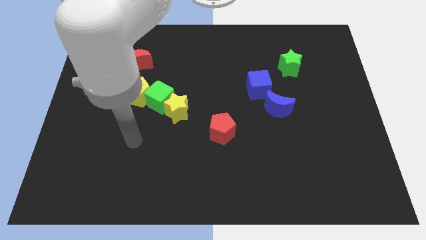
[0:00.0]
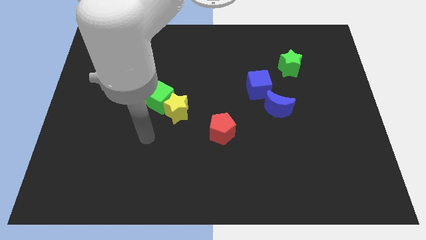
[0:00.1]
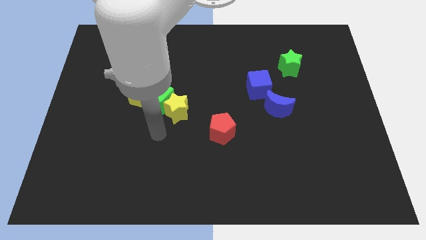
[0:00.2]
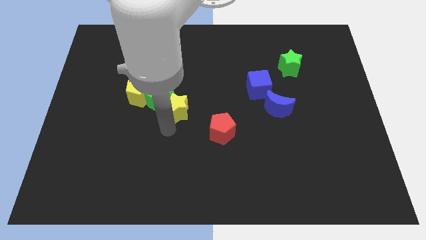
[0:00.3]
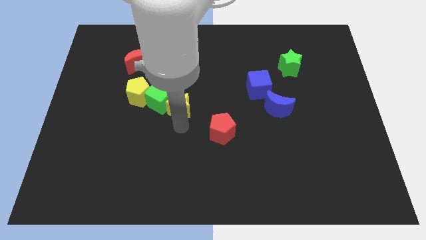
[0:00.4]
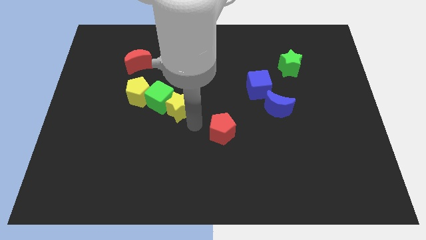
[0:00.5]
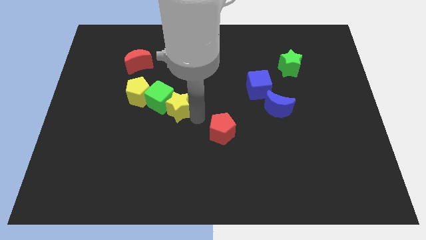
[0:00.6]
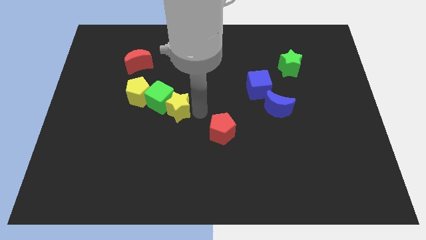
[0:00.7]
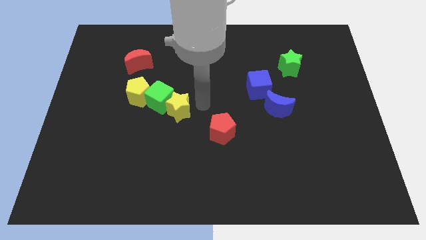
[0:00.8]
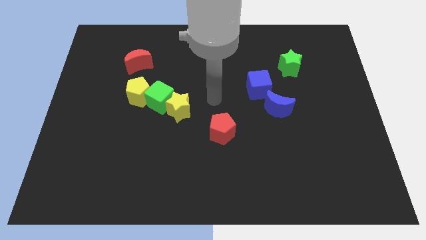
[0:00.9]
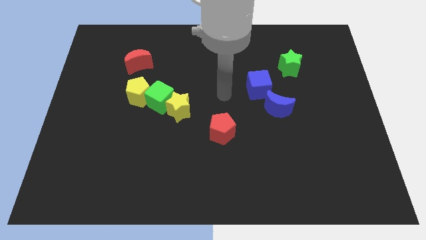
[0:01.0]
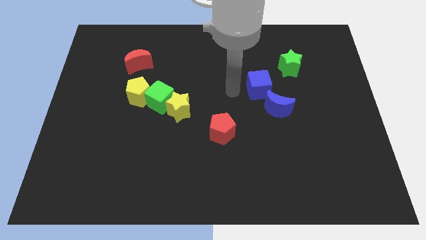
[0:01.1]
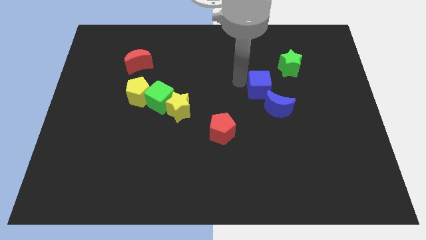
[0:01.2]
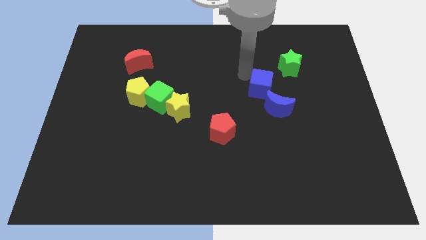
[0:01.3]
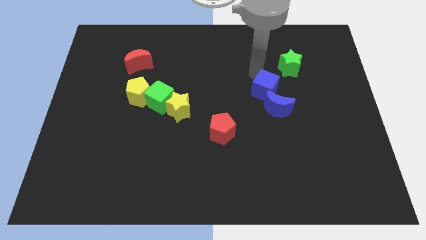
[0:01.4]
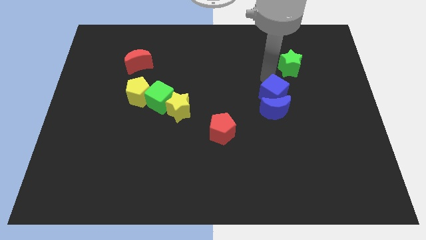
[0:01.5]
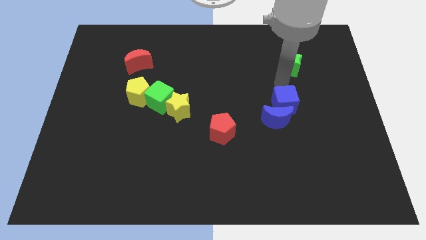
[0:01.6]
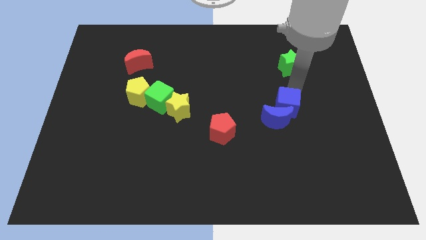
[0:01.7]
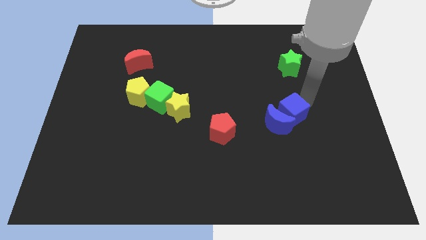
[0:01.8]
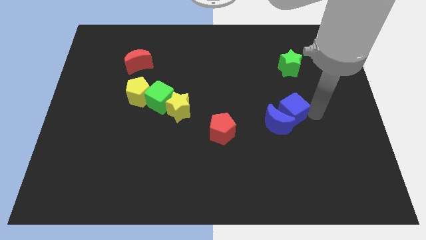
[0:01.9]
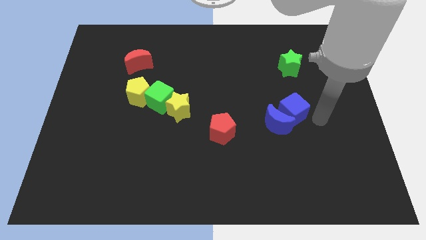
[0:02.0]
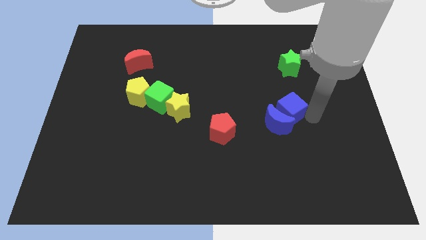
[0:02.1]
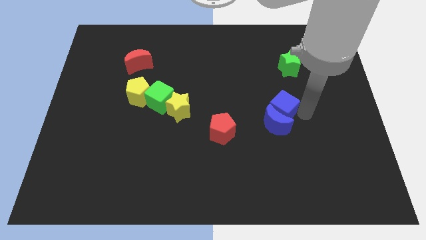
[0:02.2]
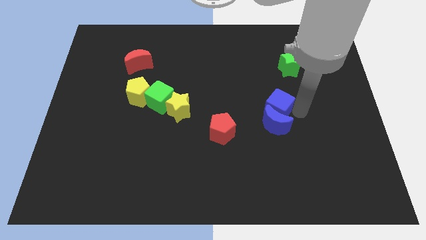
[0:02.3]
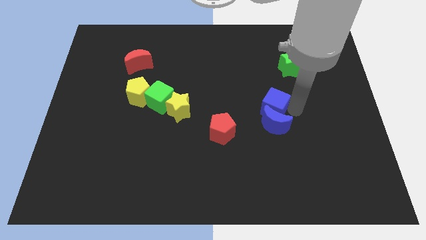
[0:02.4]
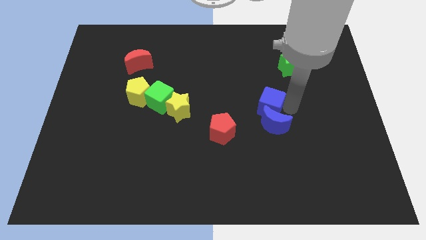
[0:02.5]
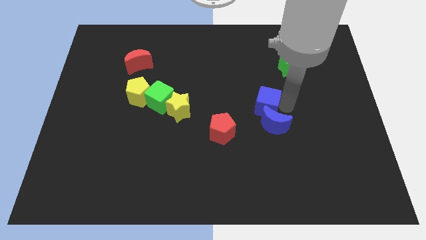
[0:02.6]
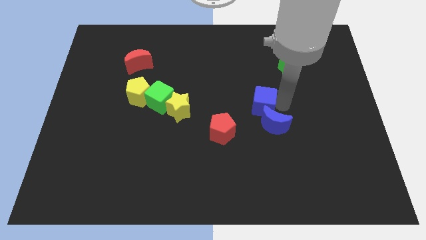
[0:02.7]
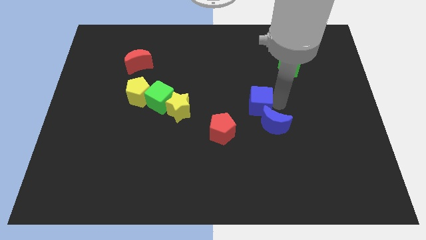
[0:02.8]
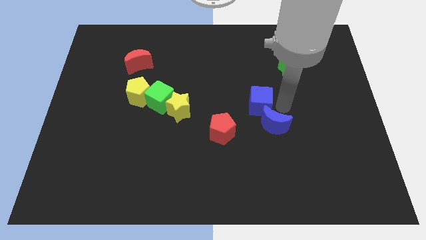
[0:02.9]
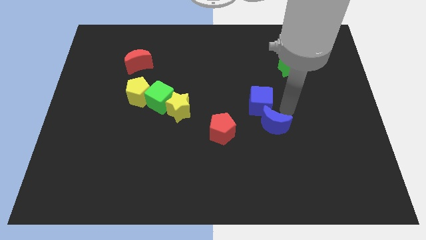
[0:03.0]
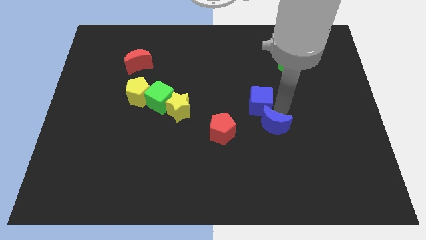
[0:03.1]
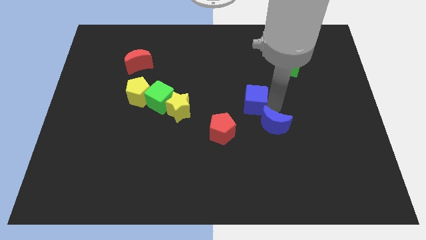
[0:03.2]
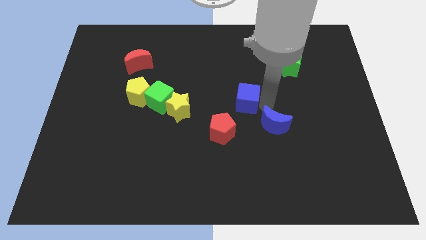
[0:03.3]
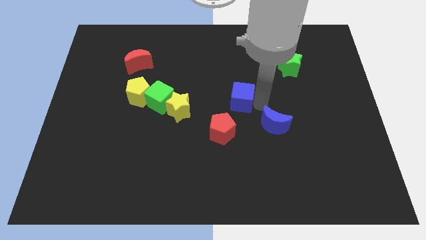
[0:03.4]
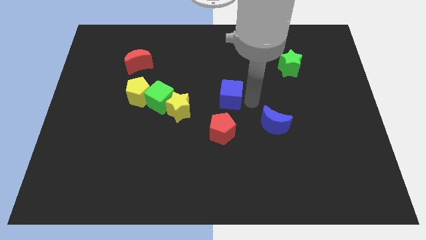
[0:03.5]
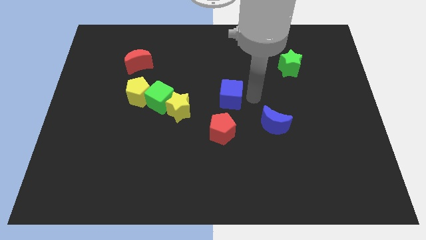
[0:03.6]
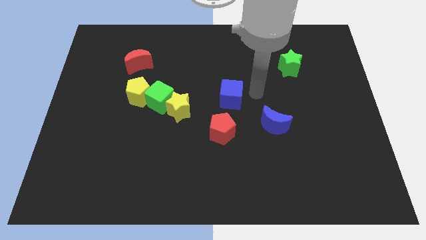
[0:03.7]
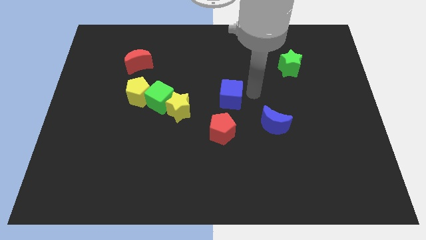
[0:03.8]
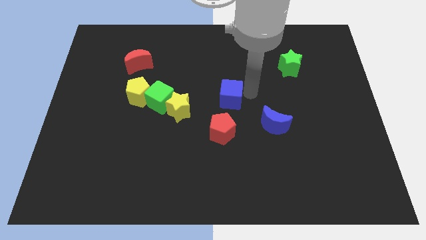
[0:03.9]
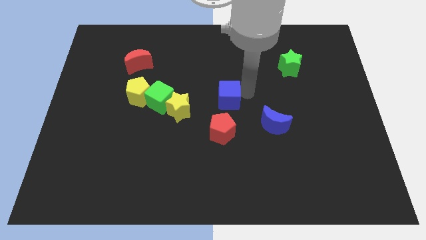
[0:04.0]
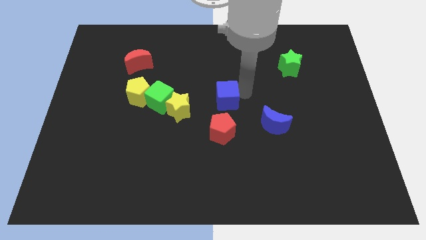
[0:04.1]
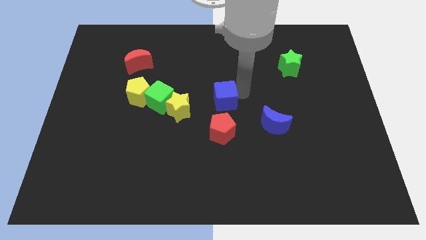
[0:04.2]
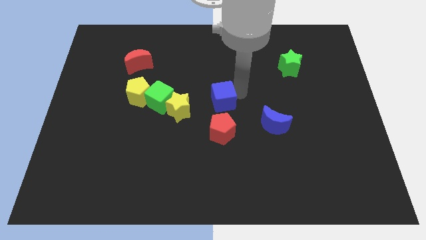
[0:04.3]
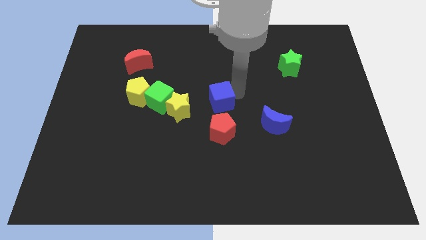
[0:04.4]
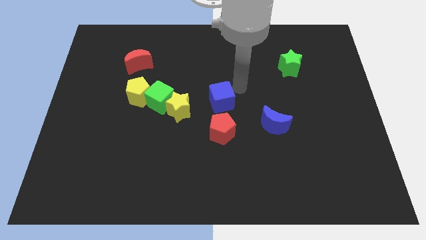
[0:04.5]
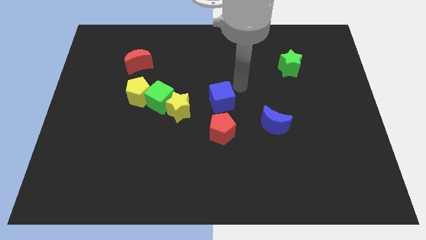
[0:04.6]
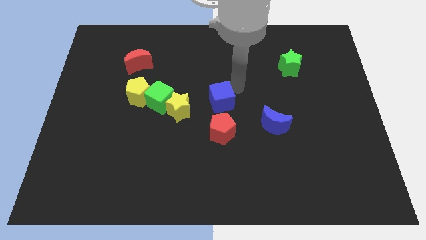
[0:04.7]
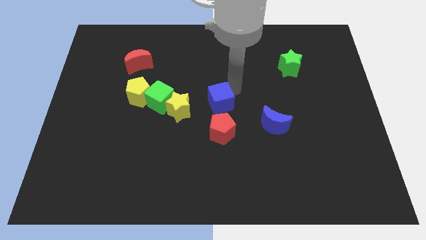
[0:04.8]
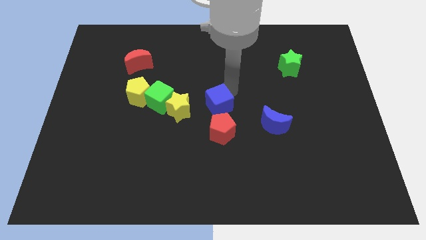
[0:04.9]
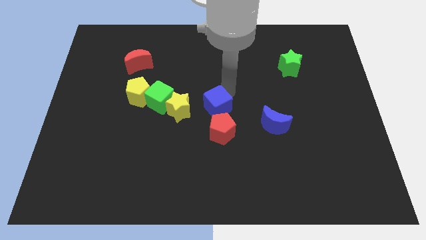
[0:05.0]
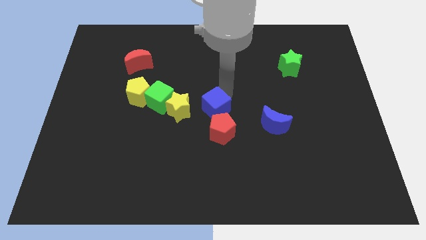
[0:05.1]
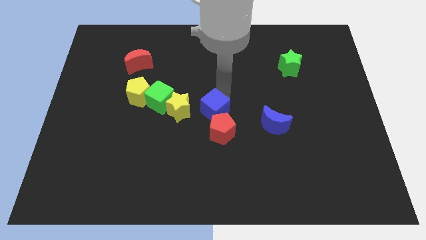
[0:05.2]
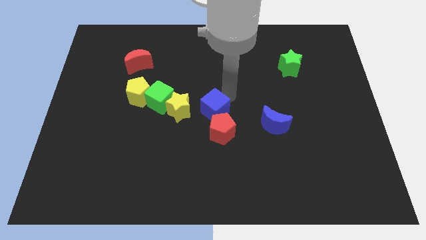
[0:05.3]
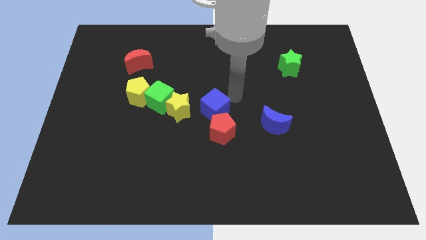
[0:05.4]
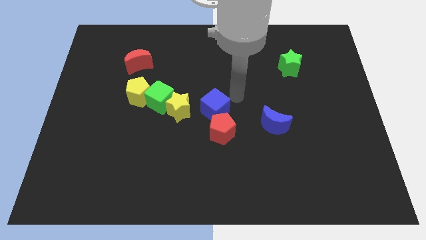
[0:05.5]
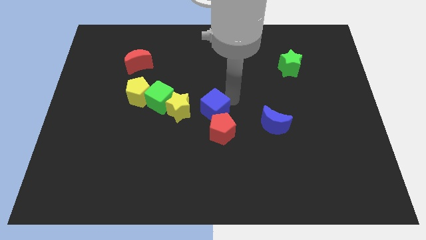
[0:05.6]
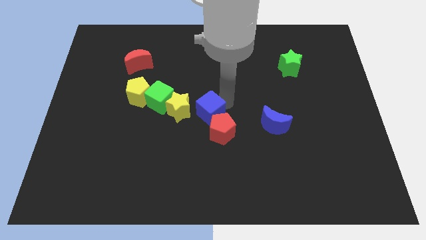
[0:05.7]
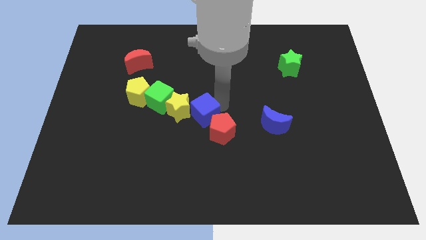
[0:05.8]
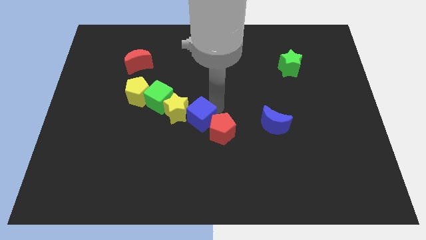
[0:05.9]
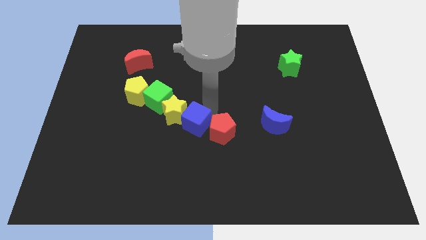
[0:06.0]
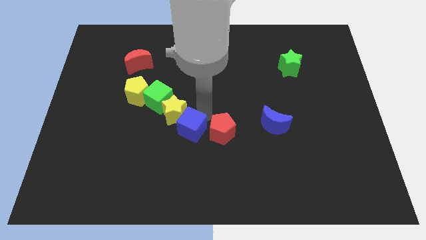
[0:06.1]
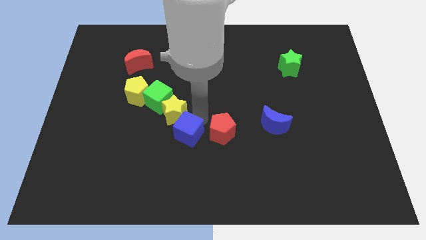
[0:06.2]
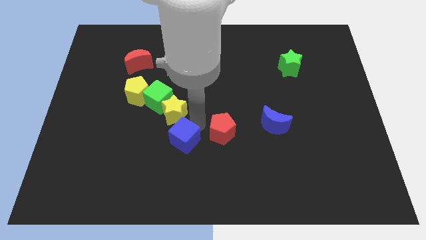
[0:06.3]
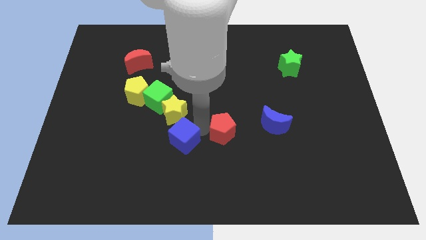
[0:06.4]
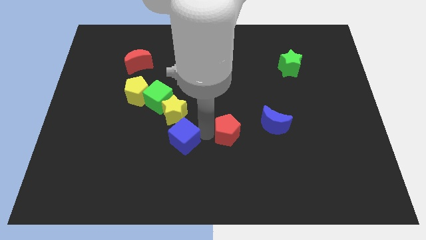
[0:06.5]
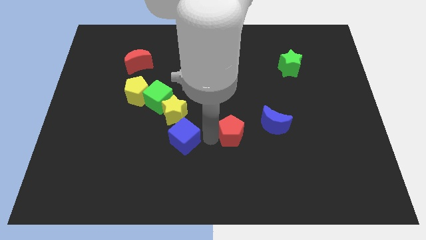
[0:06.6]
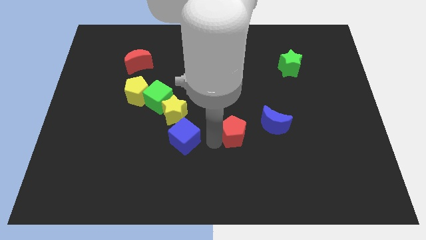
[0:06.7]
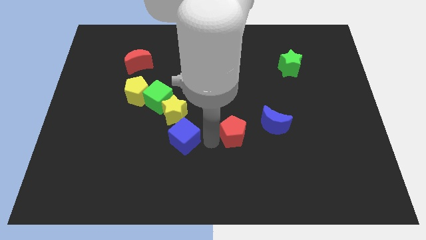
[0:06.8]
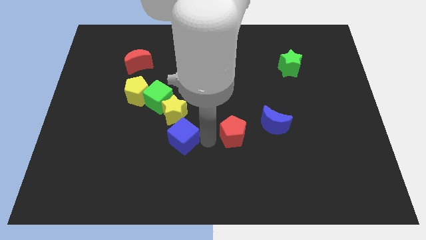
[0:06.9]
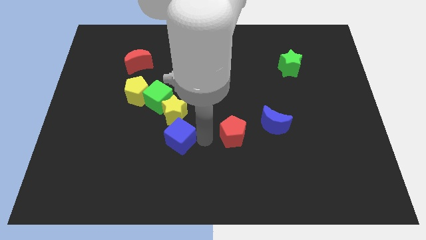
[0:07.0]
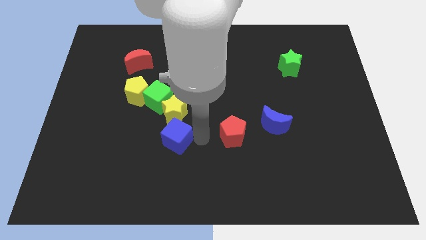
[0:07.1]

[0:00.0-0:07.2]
move the blue cube to the bottom of the green cube
